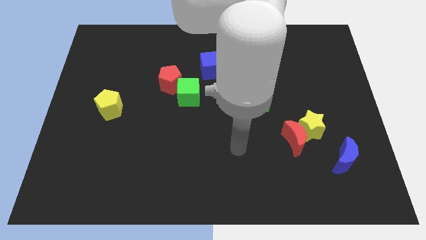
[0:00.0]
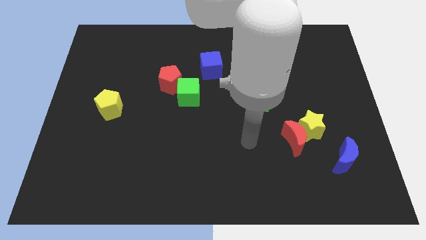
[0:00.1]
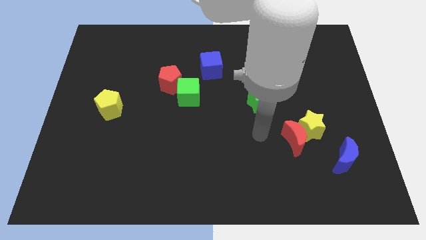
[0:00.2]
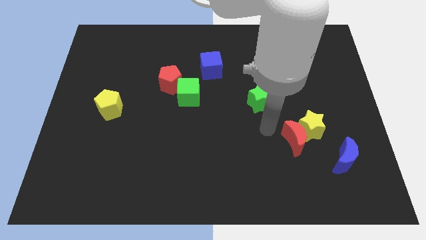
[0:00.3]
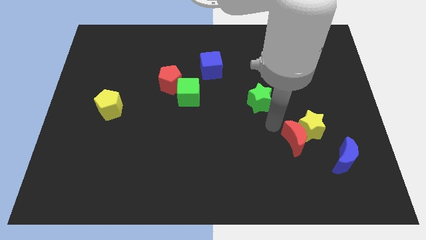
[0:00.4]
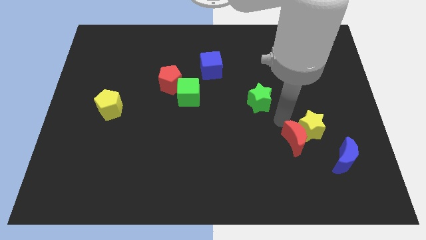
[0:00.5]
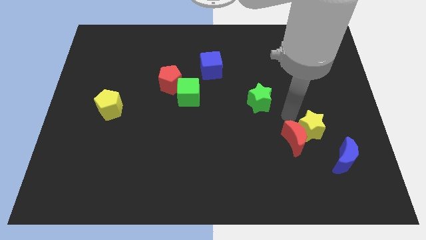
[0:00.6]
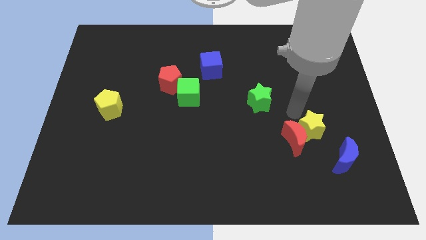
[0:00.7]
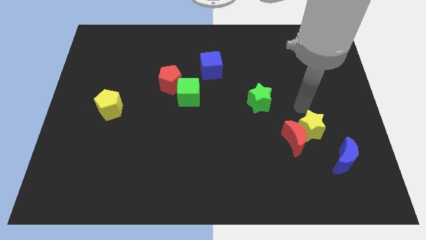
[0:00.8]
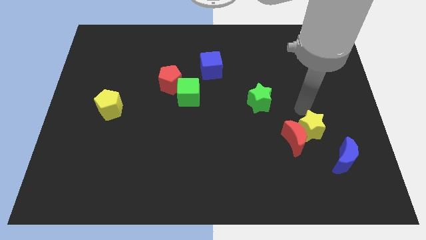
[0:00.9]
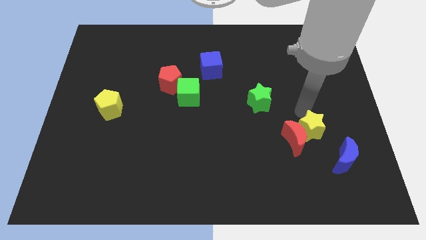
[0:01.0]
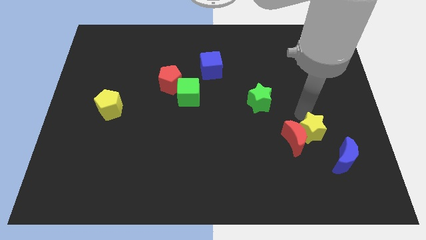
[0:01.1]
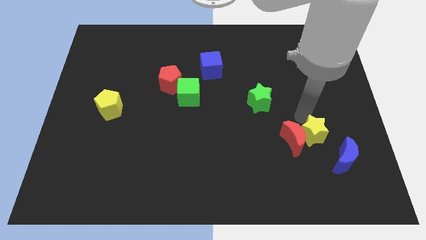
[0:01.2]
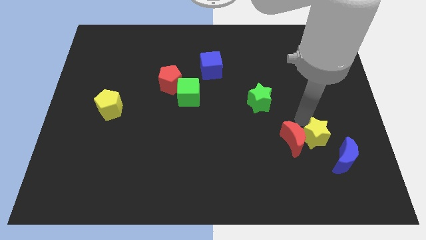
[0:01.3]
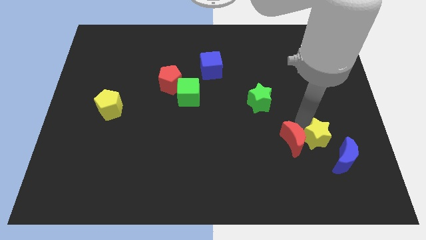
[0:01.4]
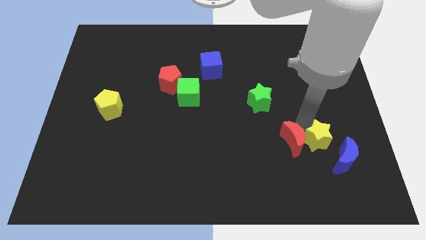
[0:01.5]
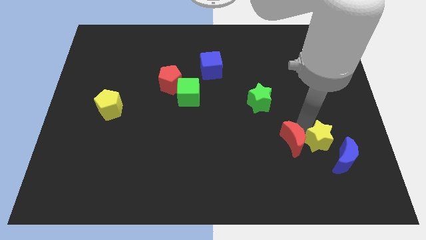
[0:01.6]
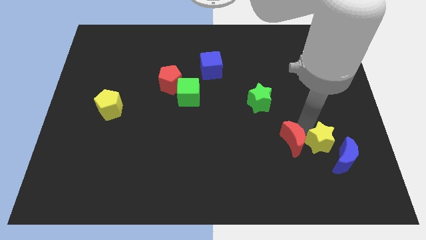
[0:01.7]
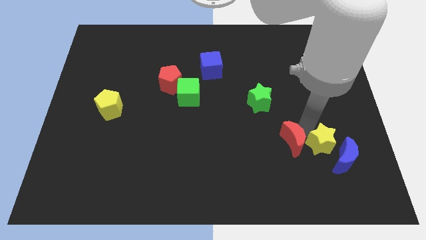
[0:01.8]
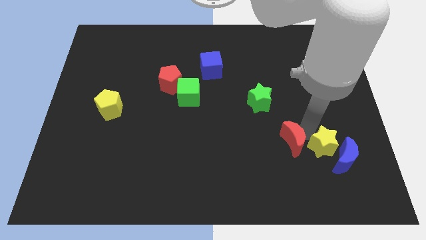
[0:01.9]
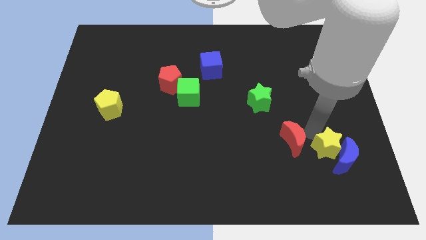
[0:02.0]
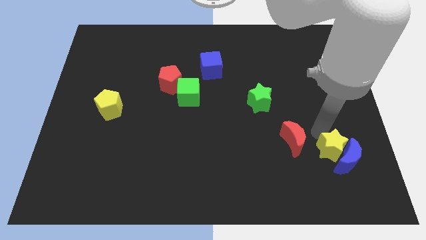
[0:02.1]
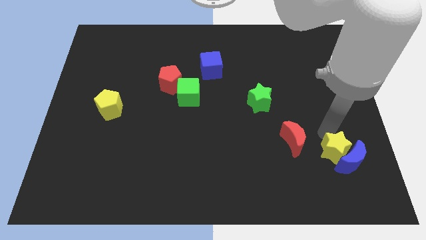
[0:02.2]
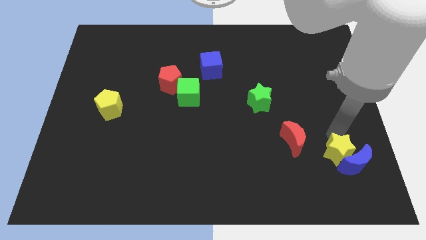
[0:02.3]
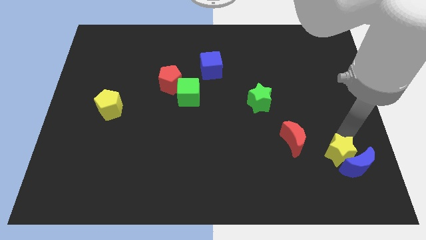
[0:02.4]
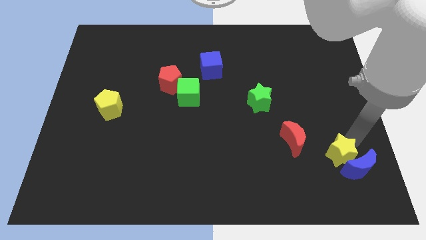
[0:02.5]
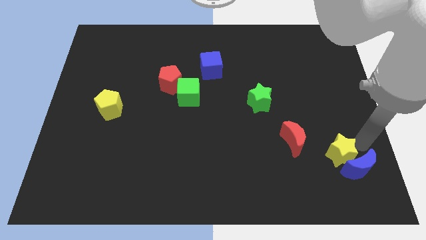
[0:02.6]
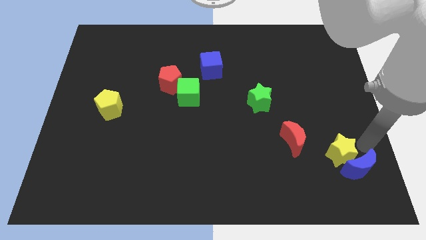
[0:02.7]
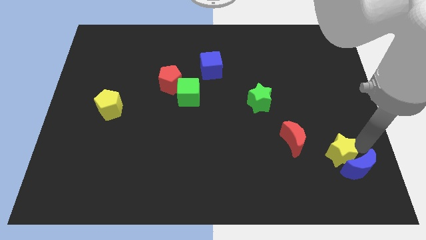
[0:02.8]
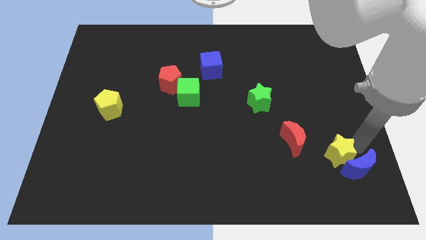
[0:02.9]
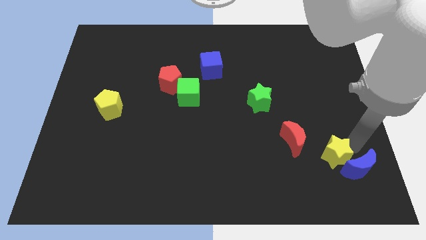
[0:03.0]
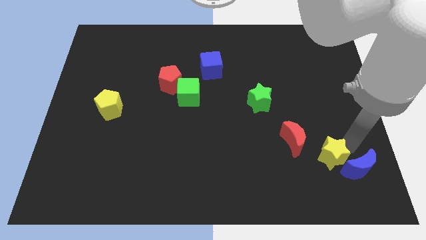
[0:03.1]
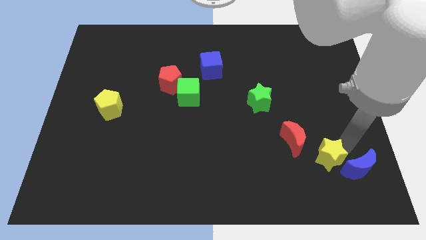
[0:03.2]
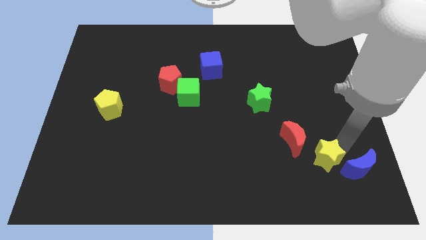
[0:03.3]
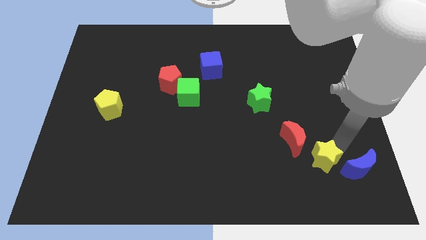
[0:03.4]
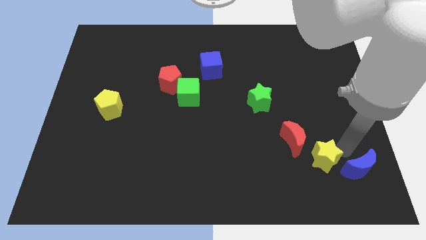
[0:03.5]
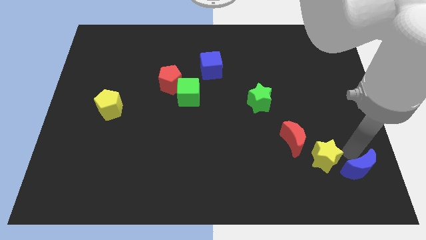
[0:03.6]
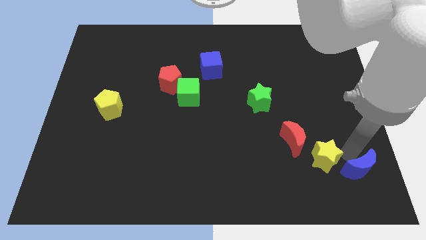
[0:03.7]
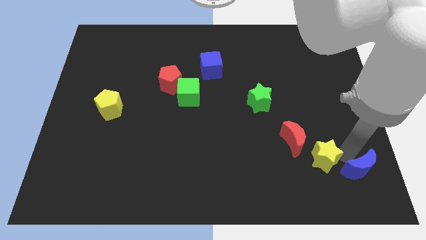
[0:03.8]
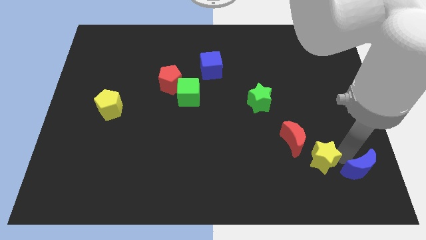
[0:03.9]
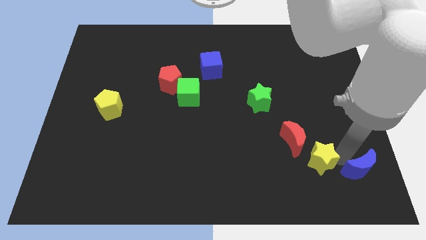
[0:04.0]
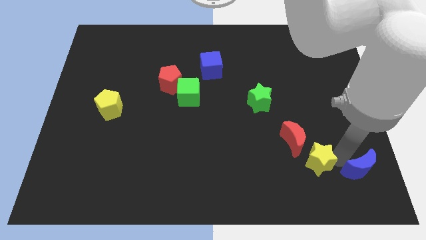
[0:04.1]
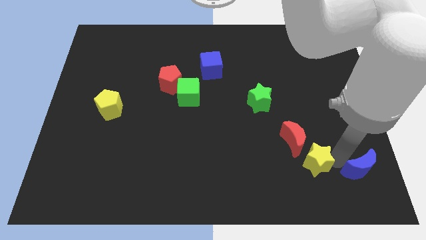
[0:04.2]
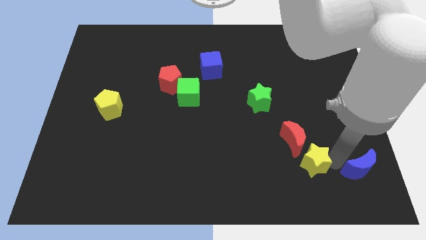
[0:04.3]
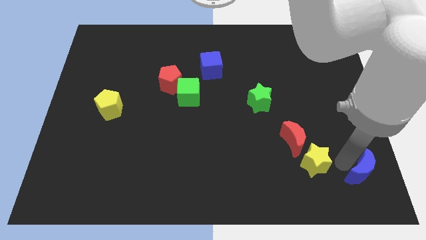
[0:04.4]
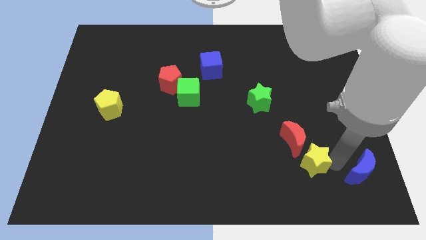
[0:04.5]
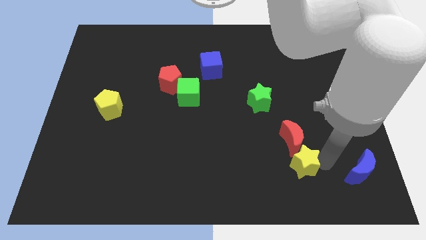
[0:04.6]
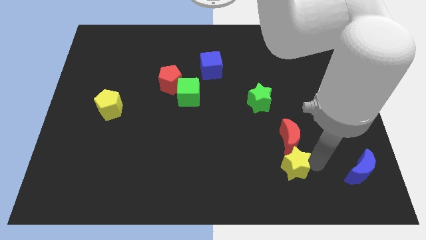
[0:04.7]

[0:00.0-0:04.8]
put the yellow star diagonally down and to the left of the red moon

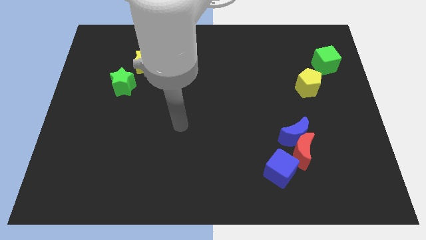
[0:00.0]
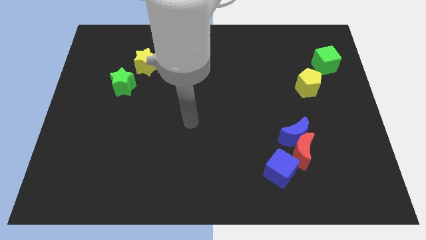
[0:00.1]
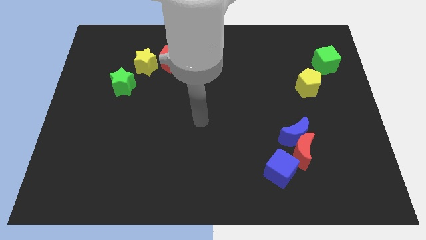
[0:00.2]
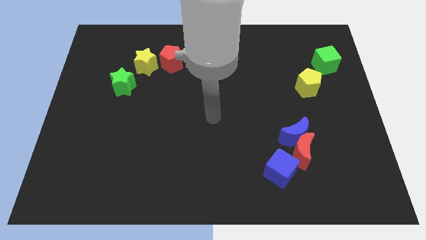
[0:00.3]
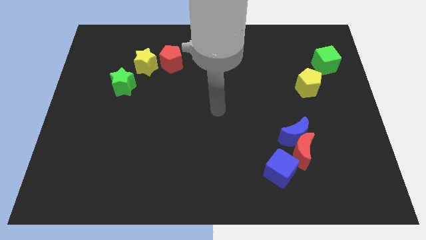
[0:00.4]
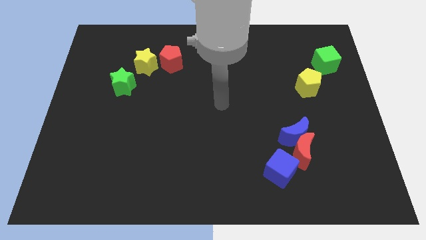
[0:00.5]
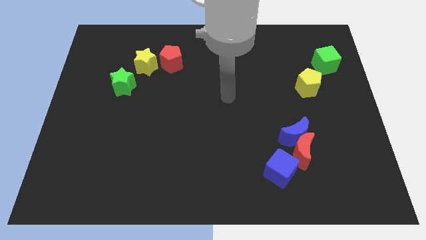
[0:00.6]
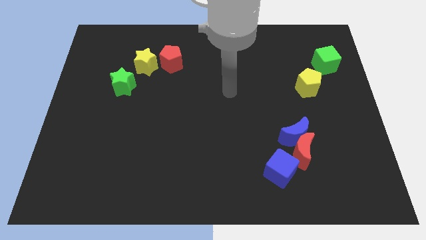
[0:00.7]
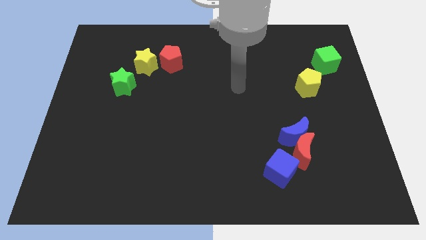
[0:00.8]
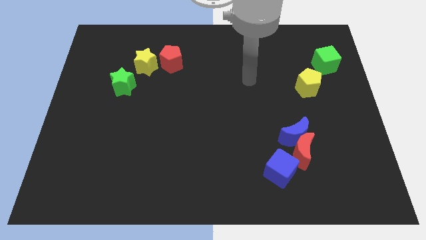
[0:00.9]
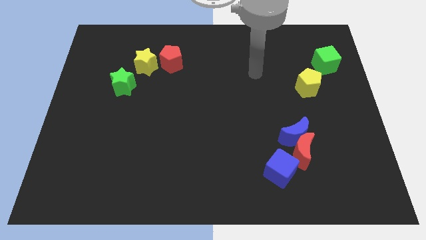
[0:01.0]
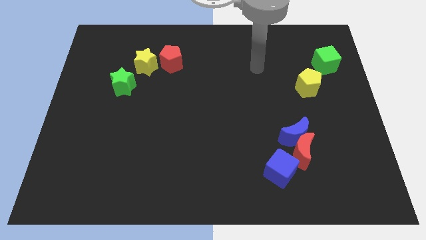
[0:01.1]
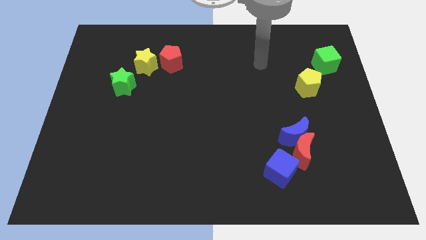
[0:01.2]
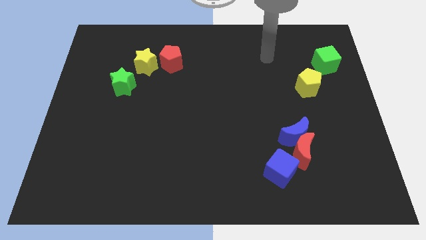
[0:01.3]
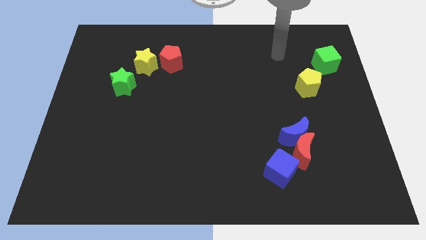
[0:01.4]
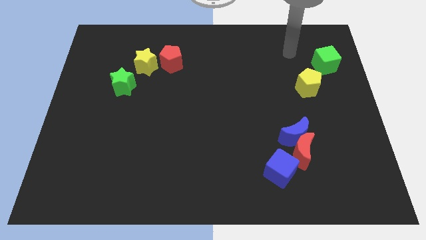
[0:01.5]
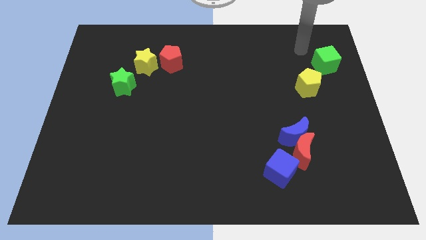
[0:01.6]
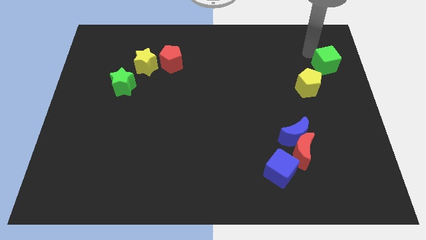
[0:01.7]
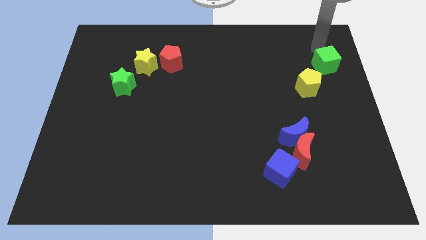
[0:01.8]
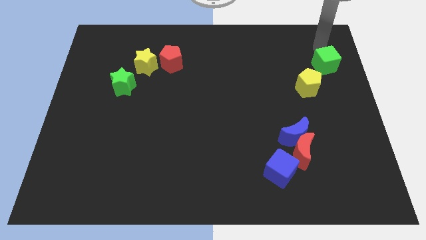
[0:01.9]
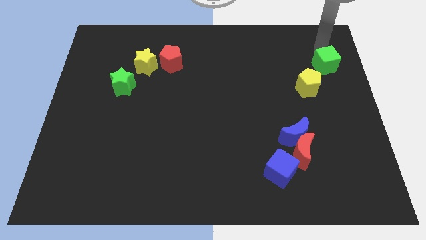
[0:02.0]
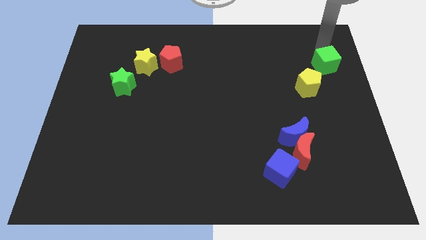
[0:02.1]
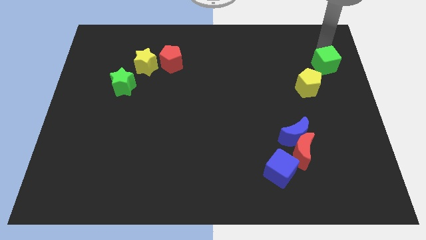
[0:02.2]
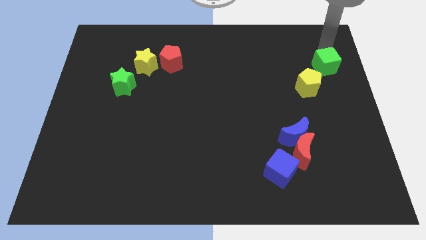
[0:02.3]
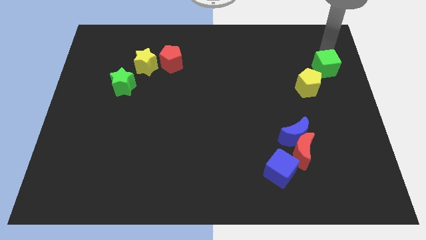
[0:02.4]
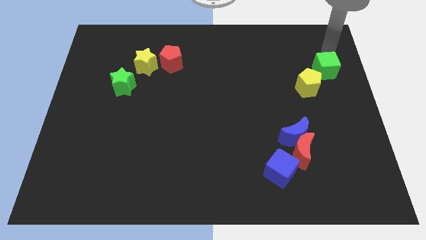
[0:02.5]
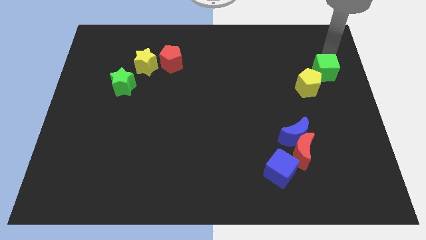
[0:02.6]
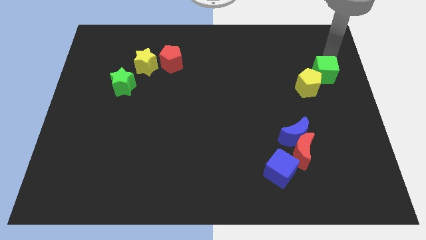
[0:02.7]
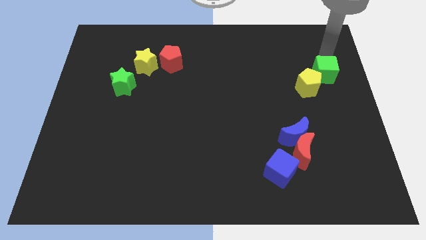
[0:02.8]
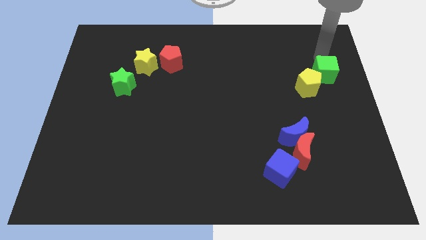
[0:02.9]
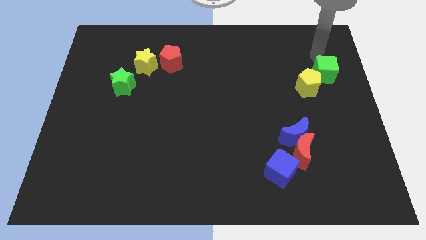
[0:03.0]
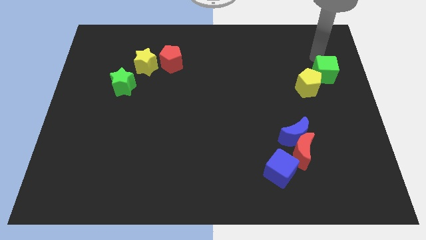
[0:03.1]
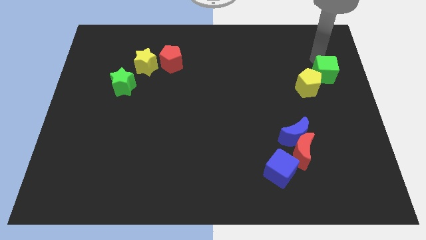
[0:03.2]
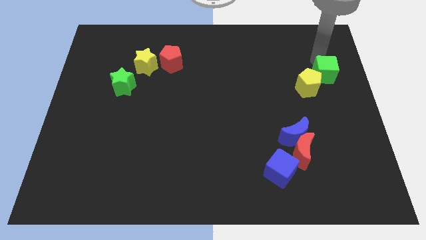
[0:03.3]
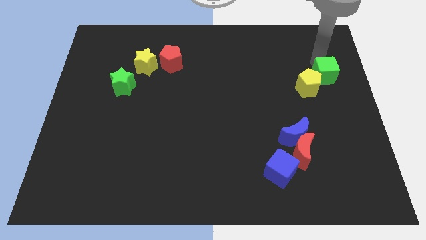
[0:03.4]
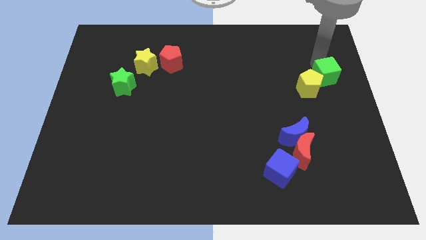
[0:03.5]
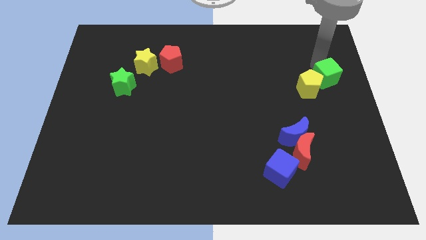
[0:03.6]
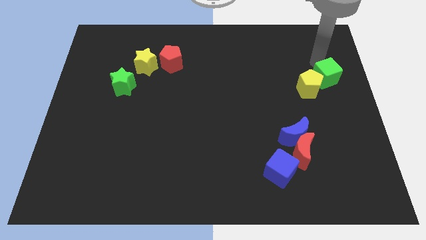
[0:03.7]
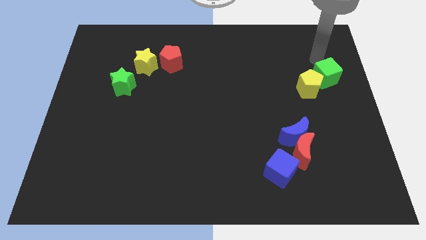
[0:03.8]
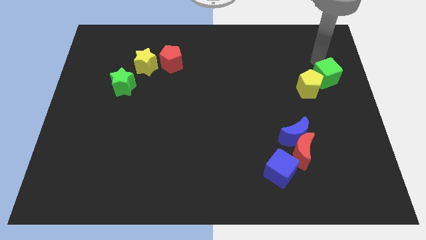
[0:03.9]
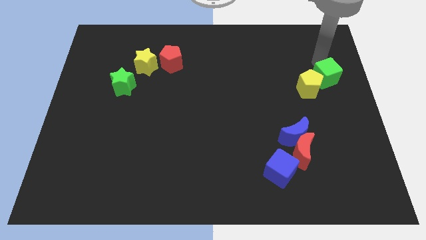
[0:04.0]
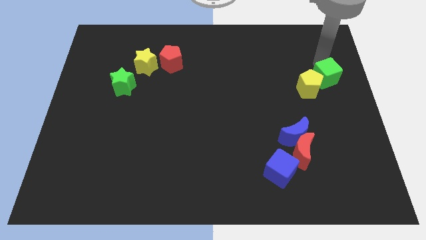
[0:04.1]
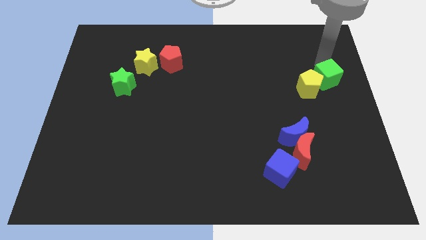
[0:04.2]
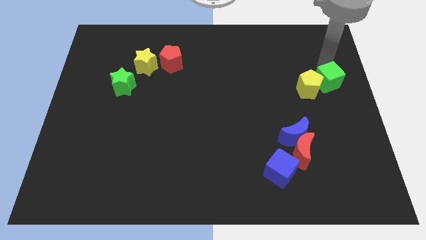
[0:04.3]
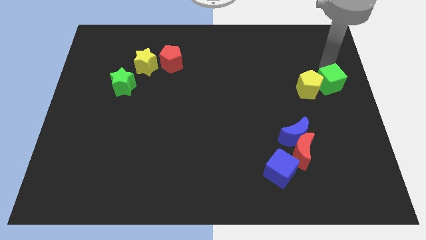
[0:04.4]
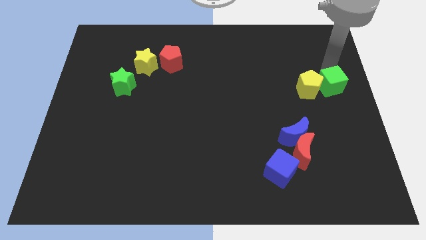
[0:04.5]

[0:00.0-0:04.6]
push the green cube diagonally down and to the right of the yellow pentagon
